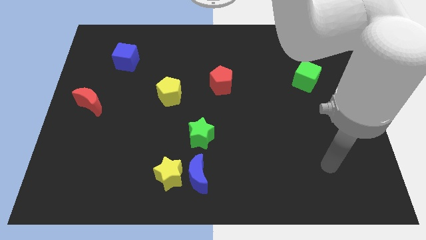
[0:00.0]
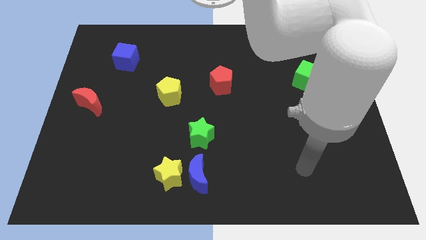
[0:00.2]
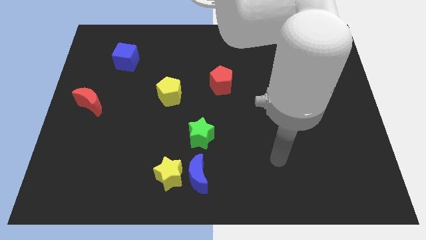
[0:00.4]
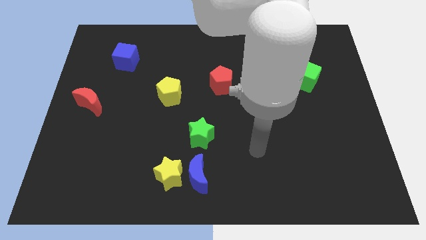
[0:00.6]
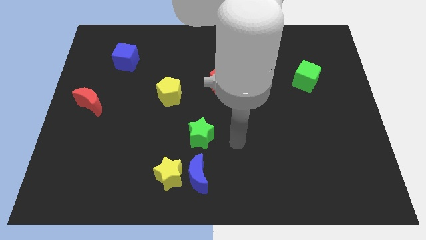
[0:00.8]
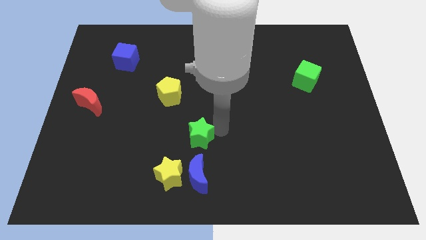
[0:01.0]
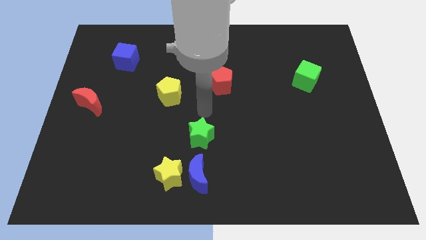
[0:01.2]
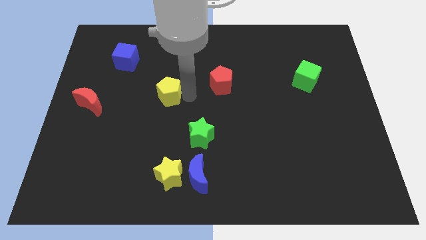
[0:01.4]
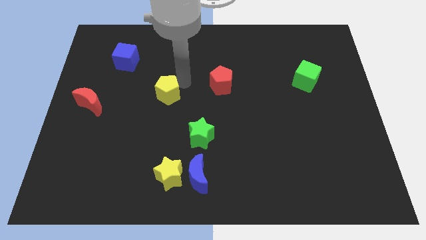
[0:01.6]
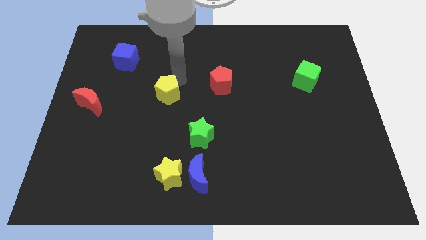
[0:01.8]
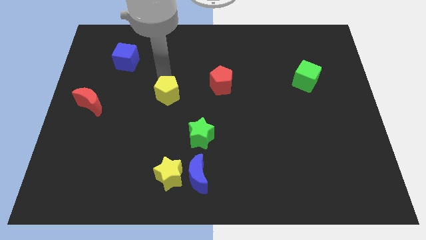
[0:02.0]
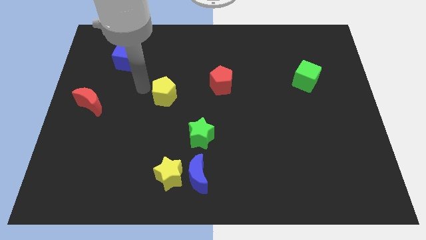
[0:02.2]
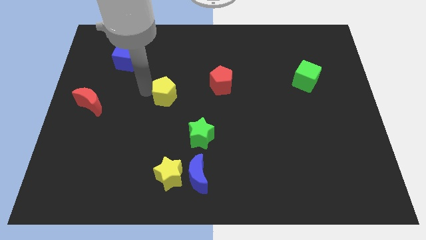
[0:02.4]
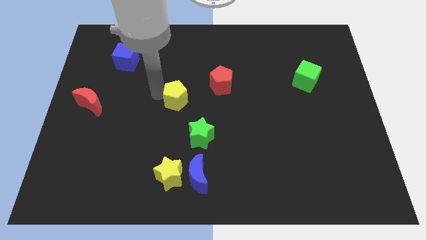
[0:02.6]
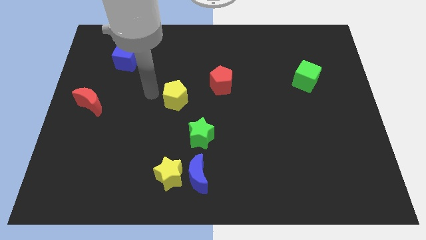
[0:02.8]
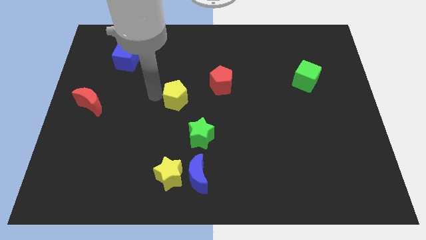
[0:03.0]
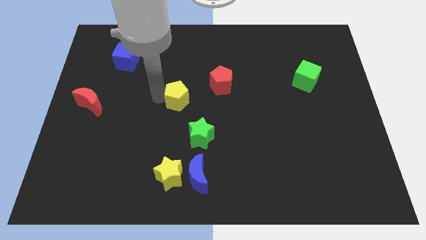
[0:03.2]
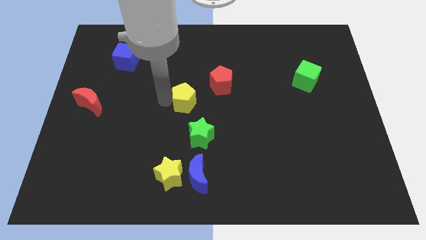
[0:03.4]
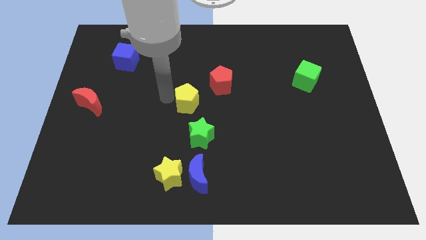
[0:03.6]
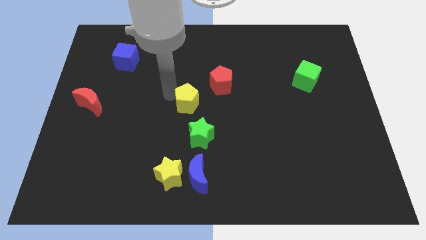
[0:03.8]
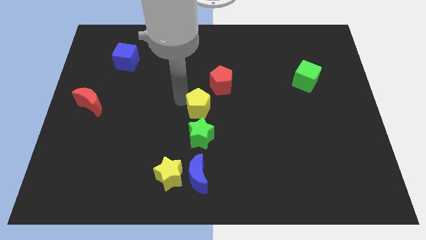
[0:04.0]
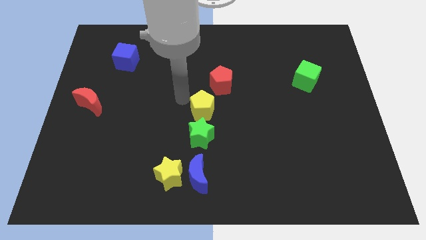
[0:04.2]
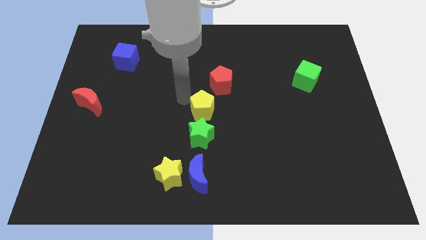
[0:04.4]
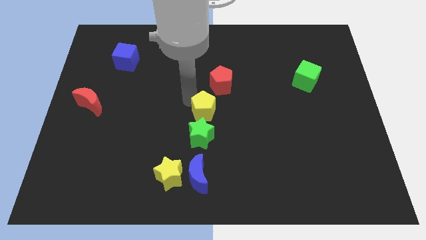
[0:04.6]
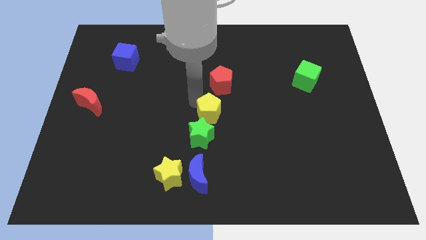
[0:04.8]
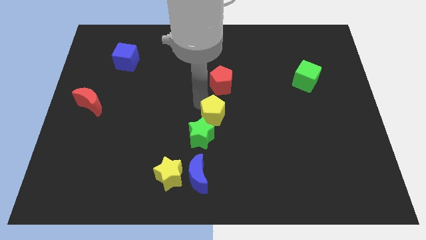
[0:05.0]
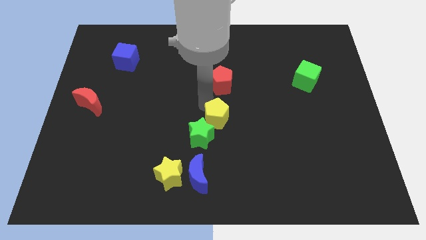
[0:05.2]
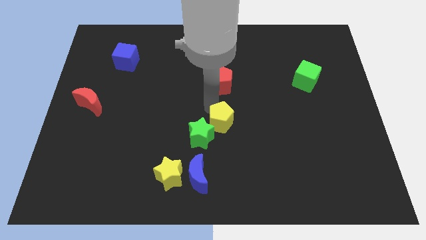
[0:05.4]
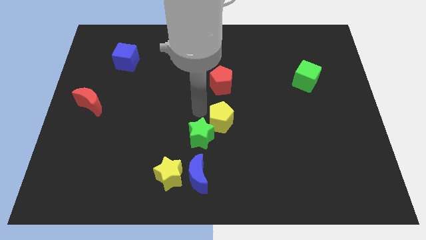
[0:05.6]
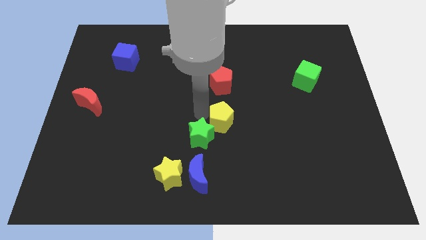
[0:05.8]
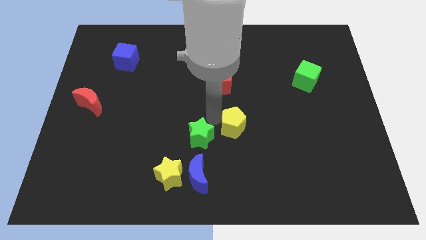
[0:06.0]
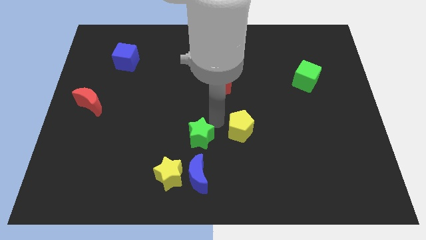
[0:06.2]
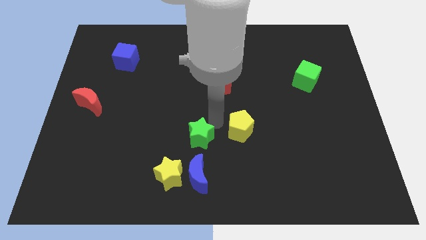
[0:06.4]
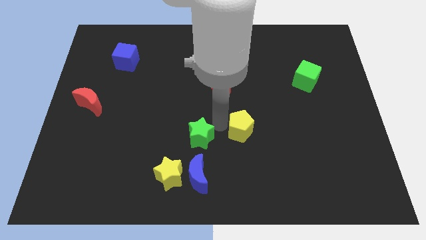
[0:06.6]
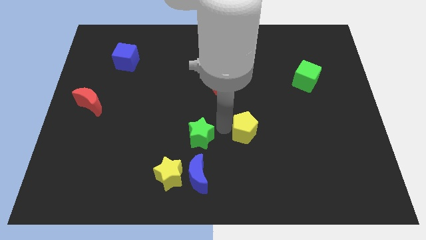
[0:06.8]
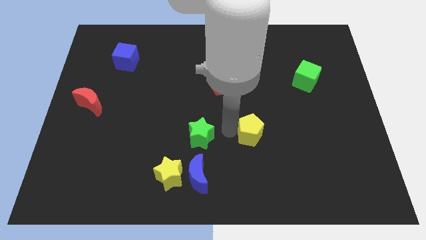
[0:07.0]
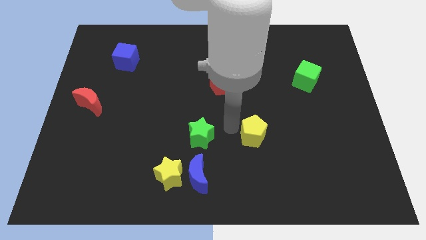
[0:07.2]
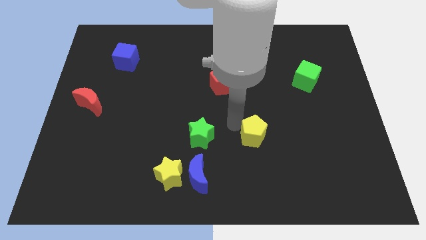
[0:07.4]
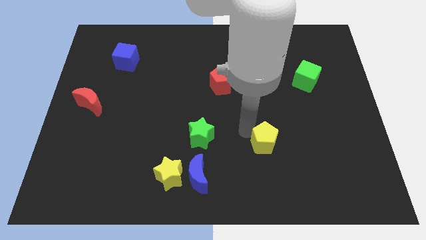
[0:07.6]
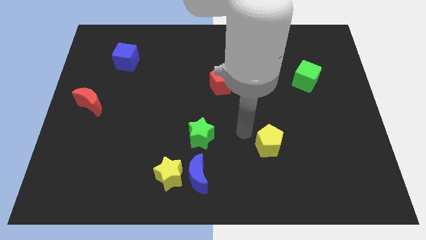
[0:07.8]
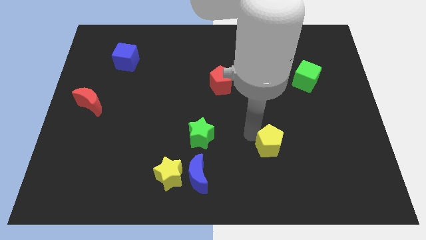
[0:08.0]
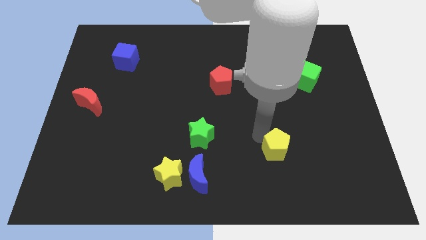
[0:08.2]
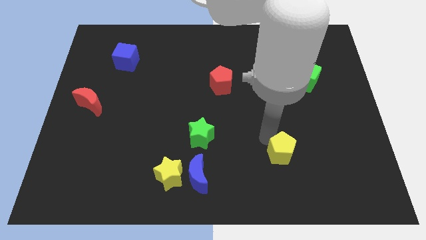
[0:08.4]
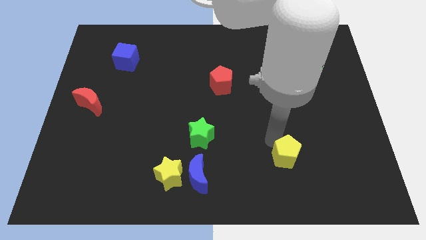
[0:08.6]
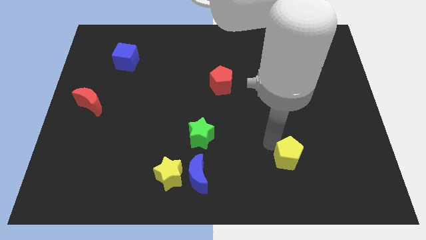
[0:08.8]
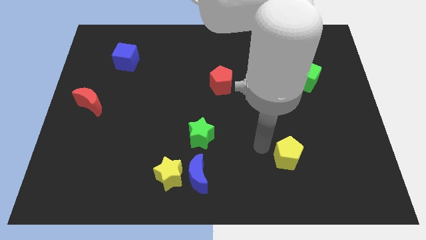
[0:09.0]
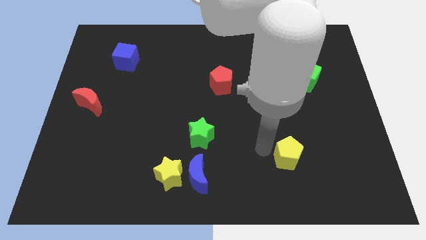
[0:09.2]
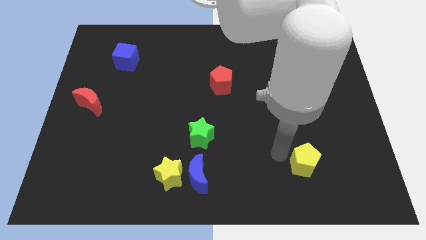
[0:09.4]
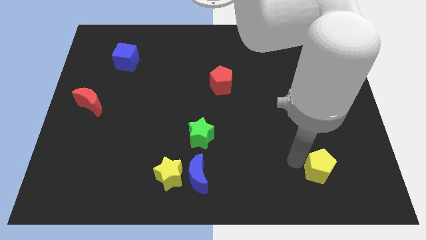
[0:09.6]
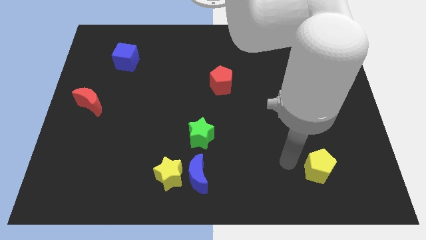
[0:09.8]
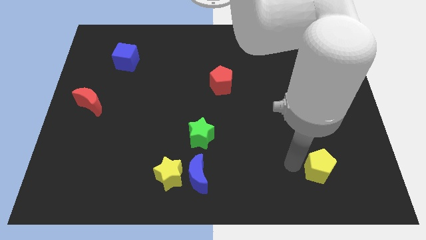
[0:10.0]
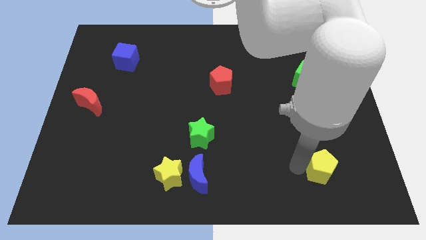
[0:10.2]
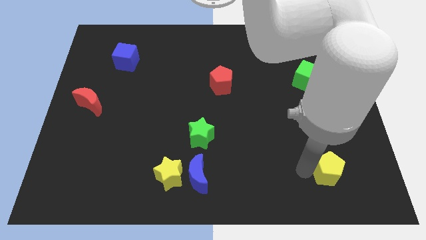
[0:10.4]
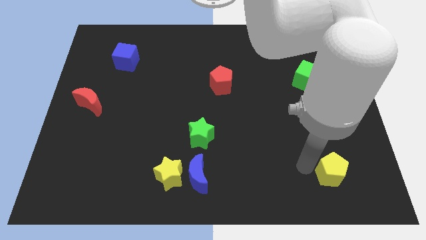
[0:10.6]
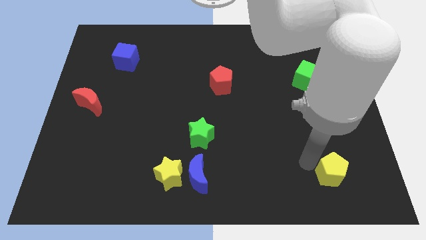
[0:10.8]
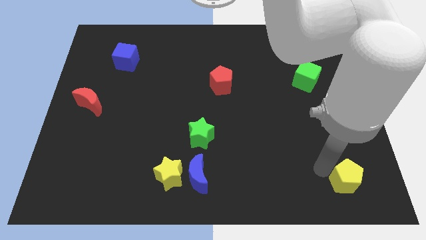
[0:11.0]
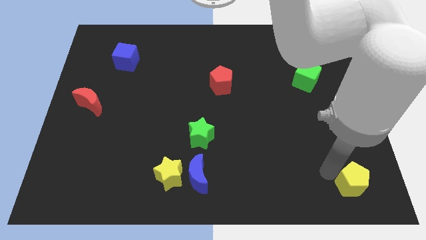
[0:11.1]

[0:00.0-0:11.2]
move the yellow pentagon to the lower right corner

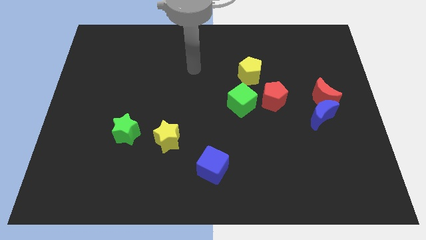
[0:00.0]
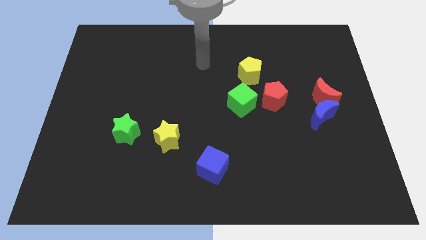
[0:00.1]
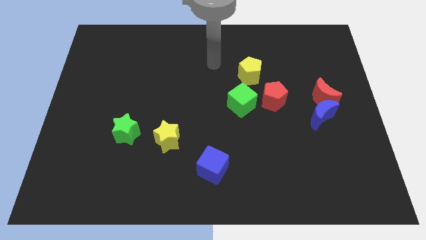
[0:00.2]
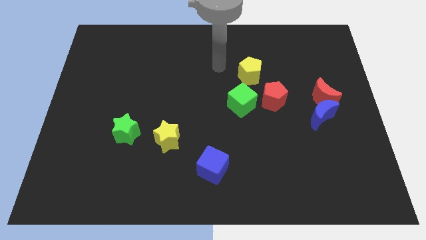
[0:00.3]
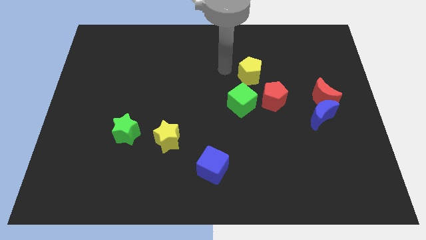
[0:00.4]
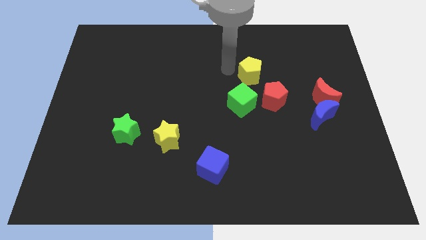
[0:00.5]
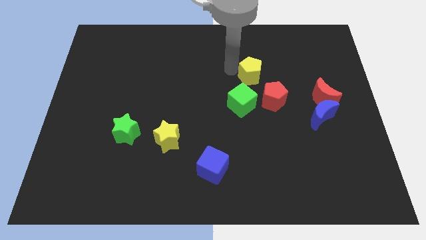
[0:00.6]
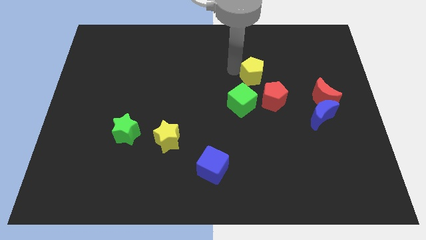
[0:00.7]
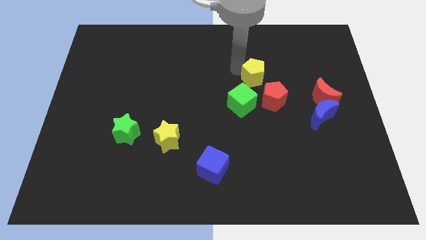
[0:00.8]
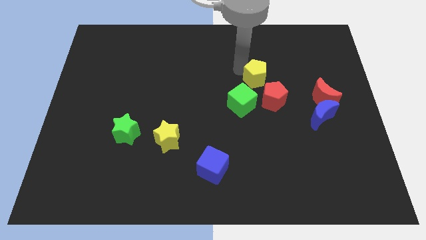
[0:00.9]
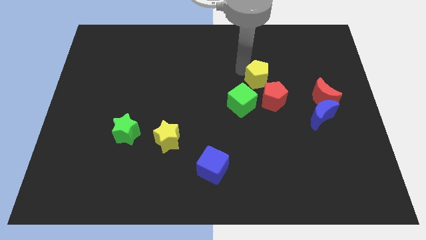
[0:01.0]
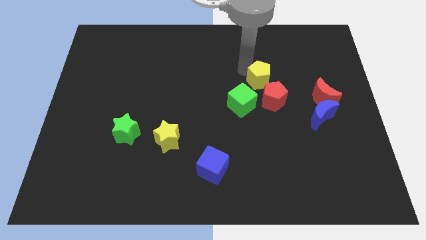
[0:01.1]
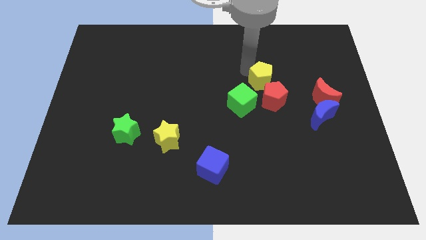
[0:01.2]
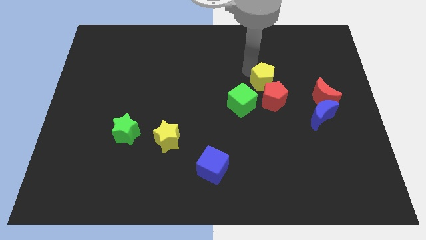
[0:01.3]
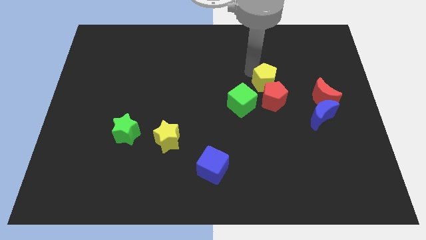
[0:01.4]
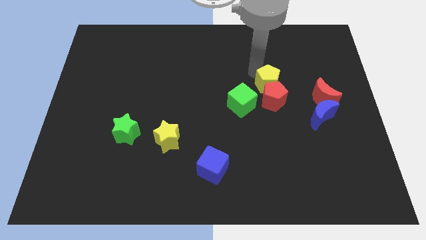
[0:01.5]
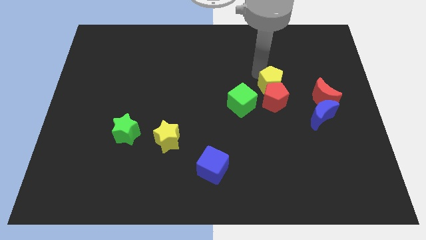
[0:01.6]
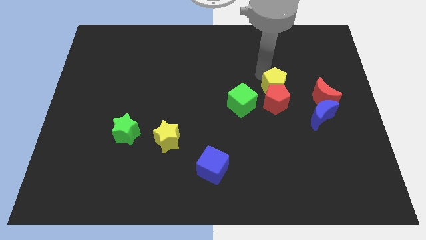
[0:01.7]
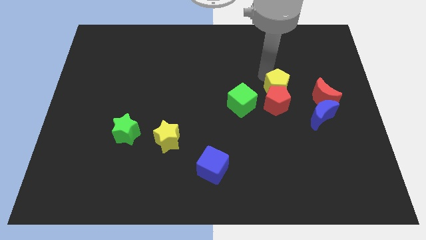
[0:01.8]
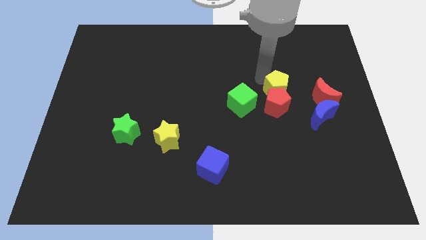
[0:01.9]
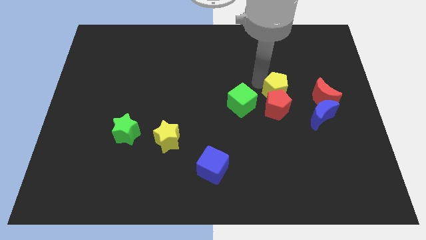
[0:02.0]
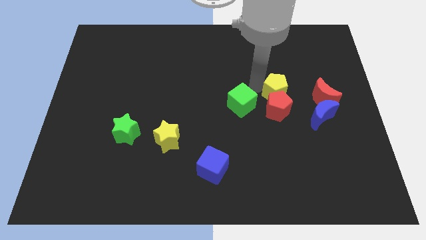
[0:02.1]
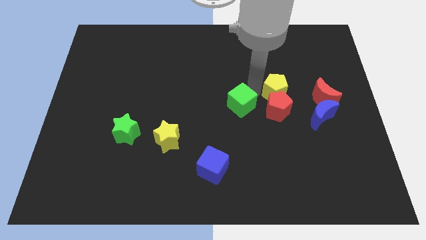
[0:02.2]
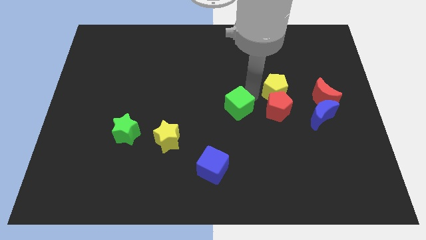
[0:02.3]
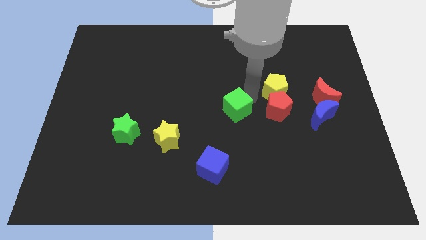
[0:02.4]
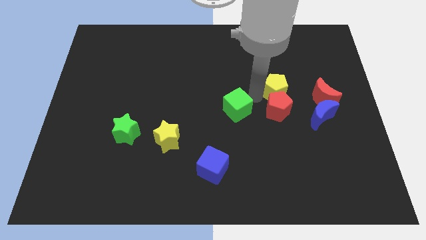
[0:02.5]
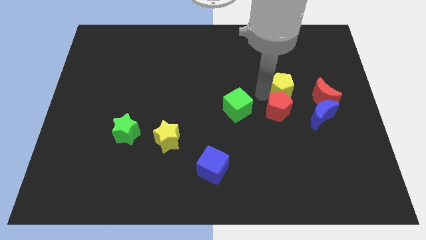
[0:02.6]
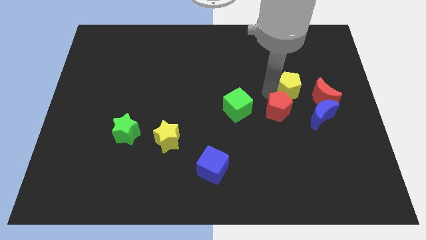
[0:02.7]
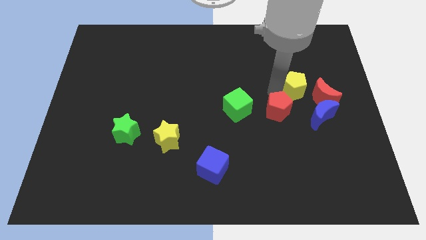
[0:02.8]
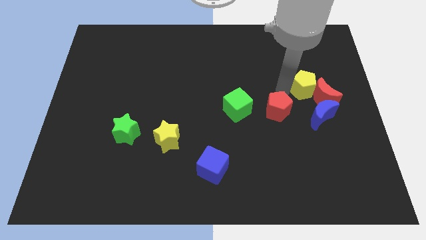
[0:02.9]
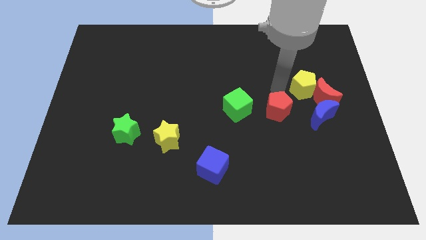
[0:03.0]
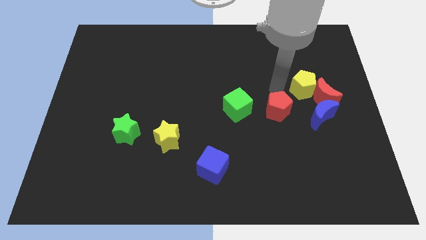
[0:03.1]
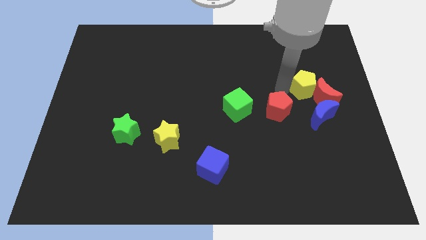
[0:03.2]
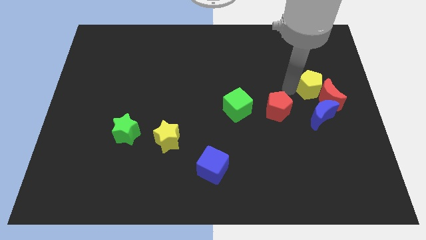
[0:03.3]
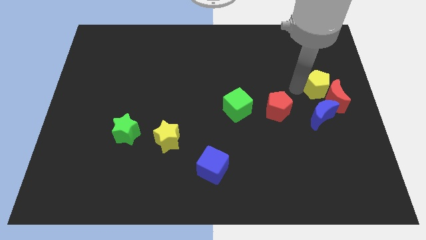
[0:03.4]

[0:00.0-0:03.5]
move the yellow pentagon to the right side
